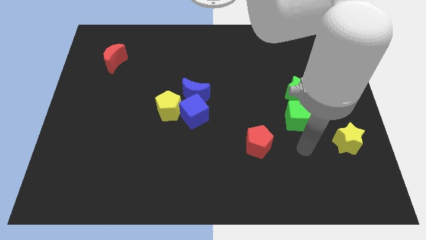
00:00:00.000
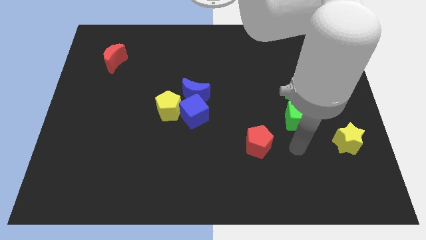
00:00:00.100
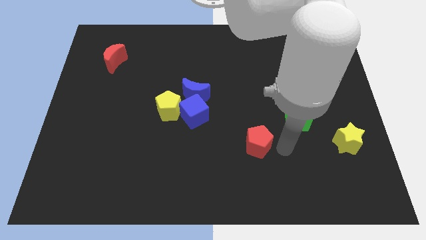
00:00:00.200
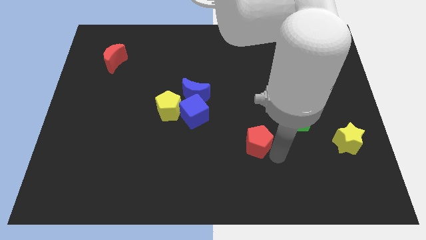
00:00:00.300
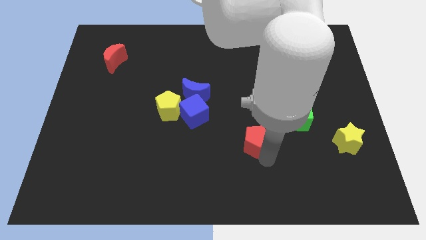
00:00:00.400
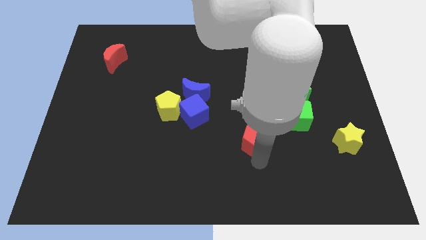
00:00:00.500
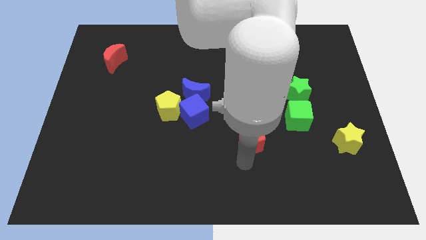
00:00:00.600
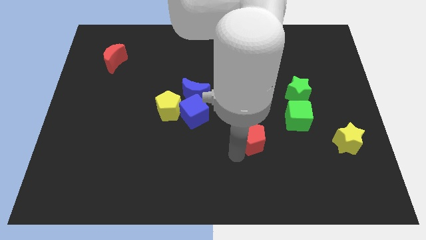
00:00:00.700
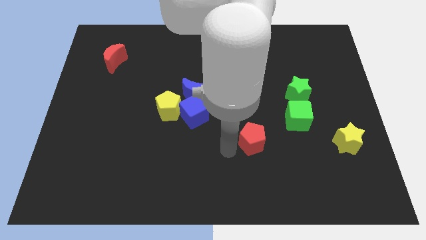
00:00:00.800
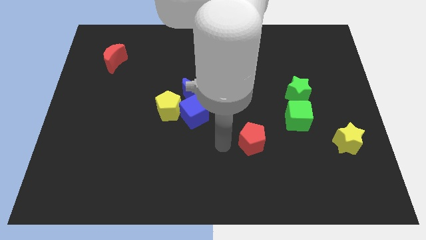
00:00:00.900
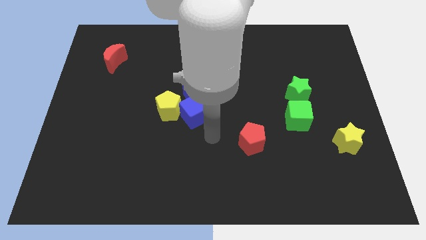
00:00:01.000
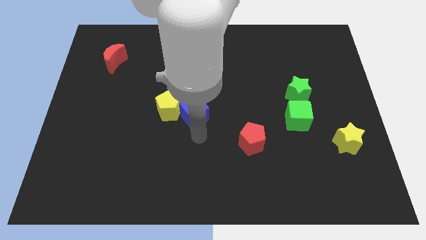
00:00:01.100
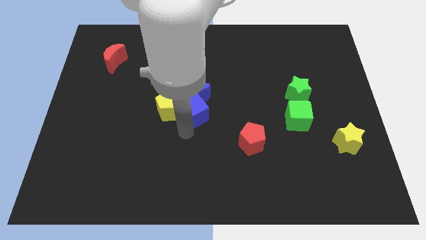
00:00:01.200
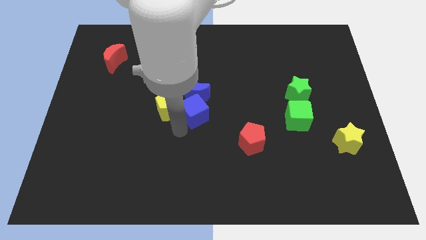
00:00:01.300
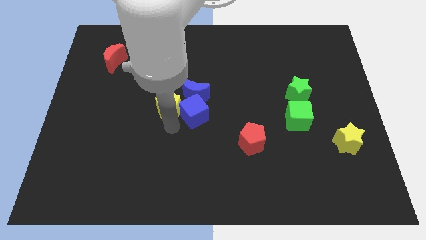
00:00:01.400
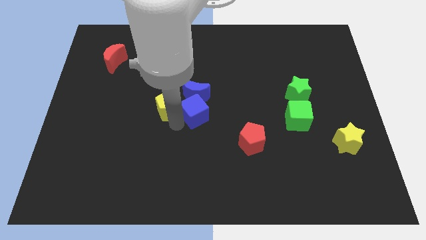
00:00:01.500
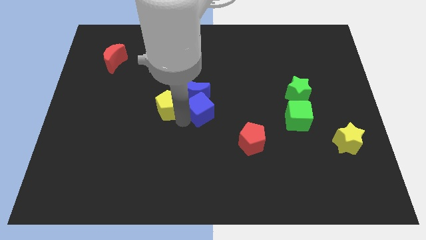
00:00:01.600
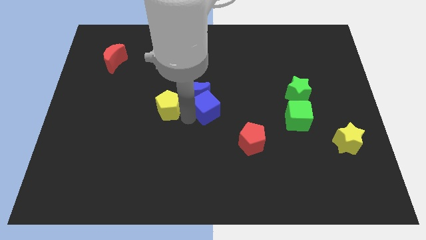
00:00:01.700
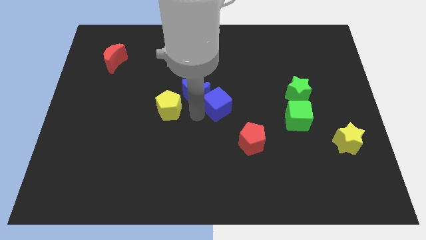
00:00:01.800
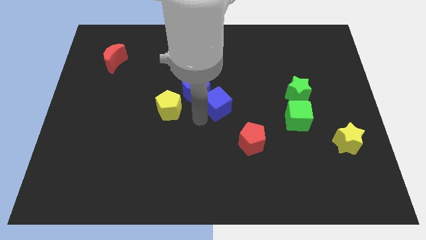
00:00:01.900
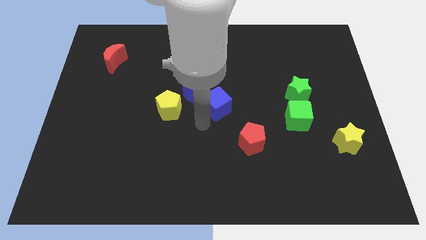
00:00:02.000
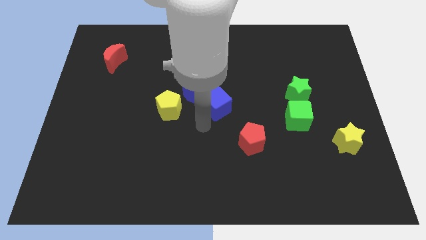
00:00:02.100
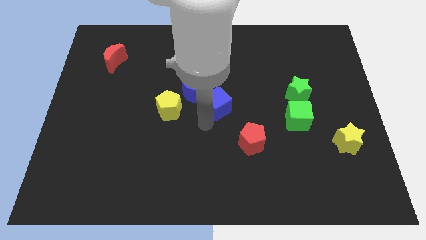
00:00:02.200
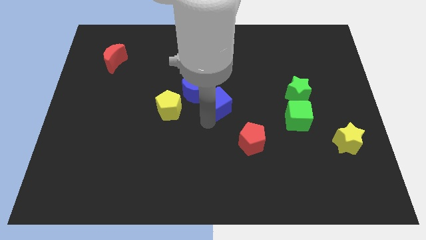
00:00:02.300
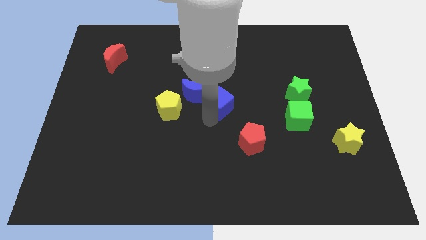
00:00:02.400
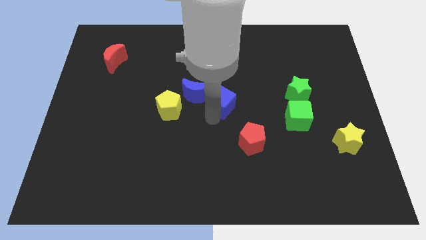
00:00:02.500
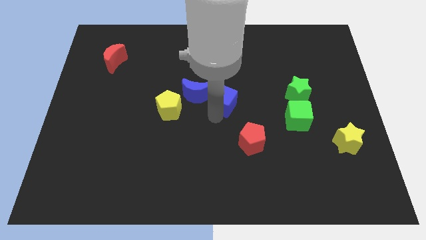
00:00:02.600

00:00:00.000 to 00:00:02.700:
move the blue cube diagonally upwards and to the right a bit

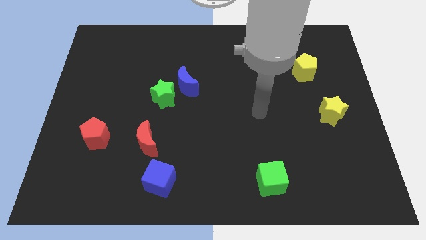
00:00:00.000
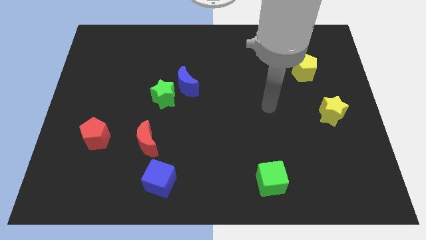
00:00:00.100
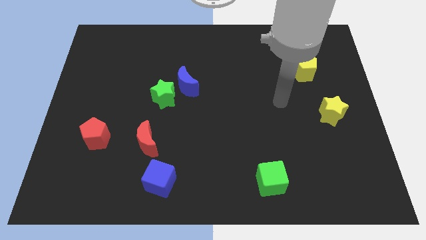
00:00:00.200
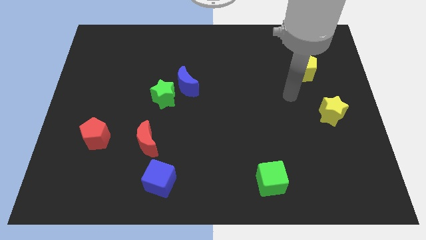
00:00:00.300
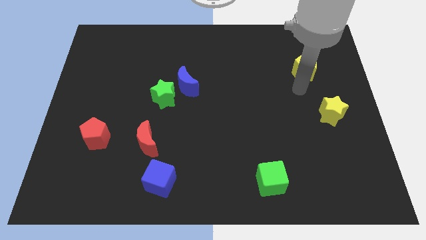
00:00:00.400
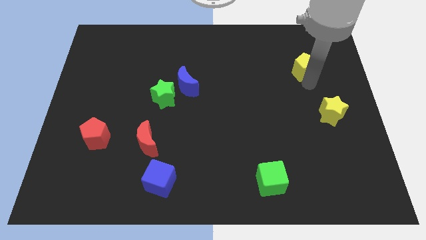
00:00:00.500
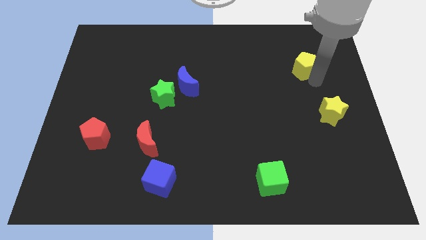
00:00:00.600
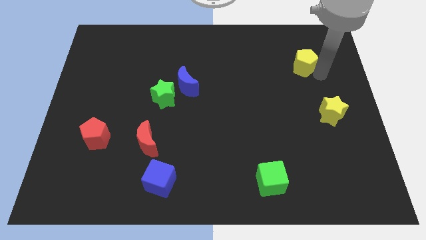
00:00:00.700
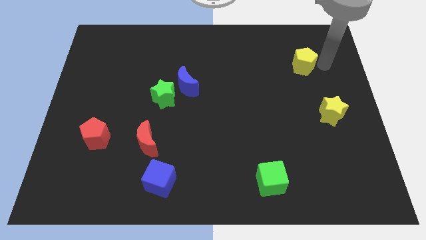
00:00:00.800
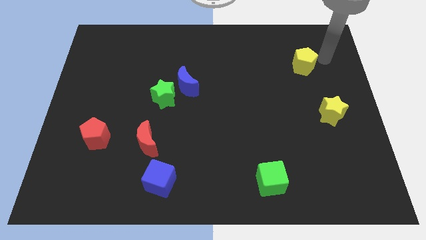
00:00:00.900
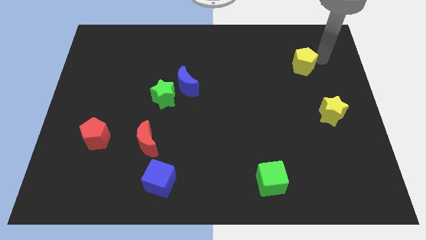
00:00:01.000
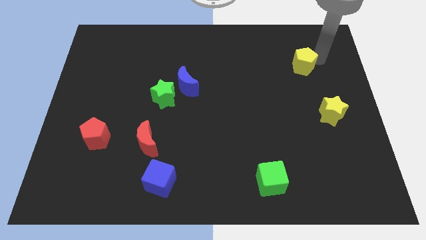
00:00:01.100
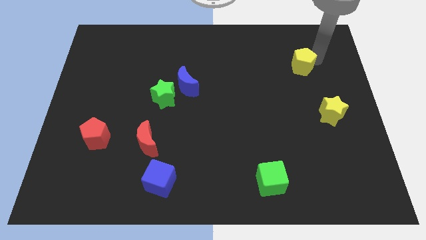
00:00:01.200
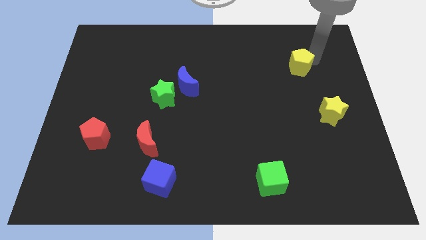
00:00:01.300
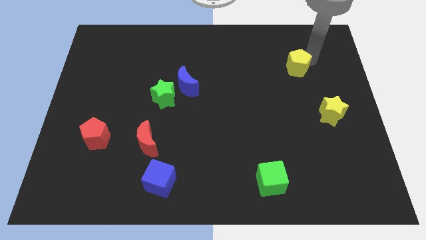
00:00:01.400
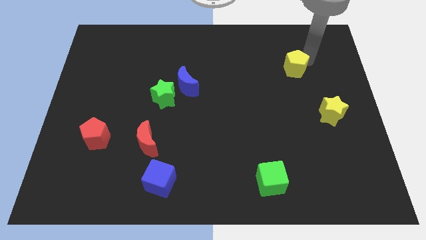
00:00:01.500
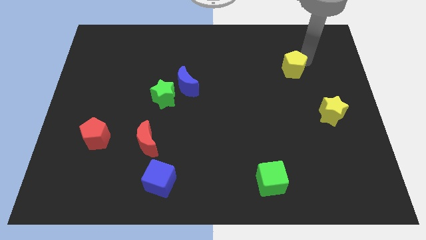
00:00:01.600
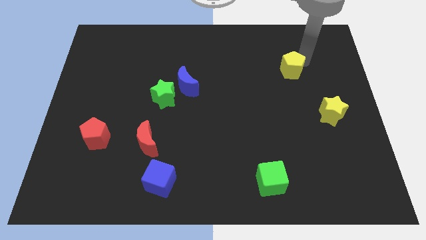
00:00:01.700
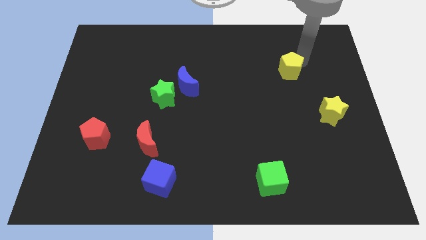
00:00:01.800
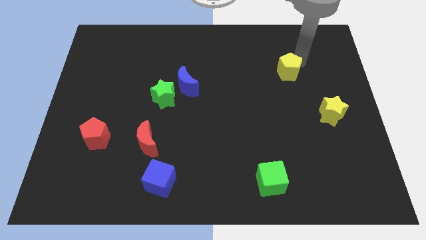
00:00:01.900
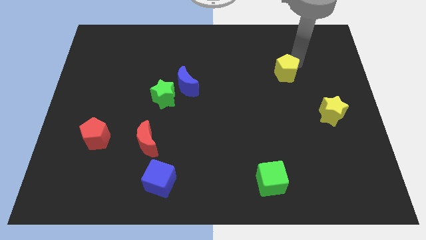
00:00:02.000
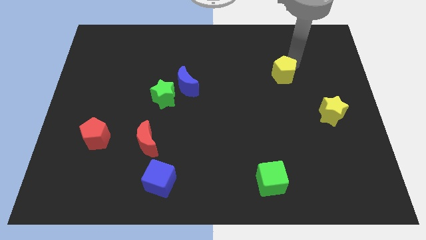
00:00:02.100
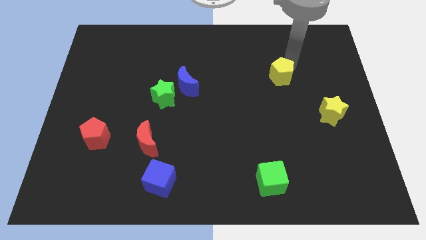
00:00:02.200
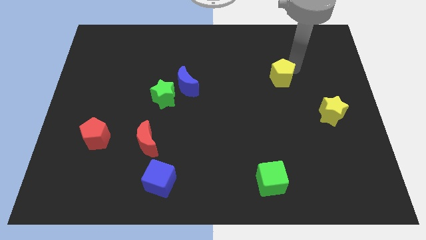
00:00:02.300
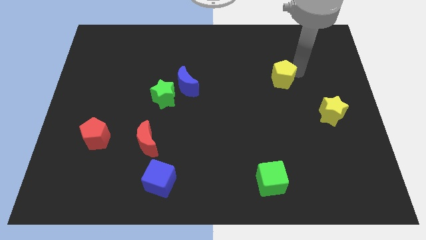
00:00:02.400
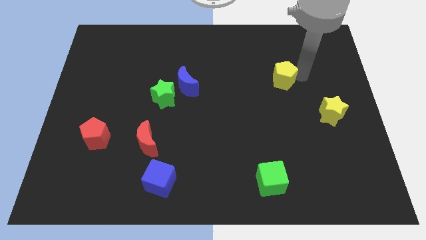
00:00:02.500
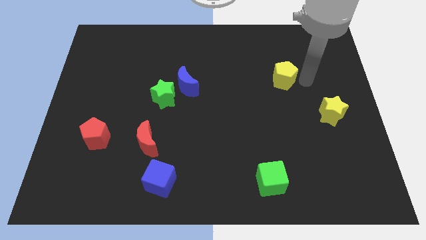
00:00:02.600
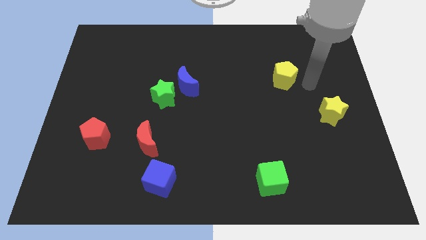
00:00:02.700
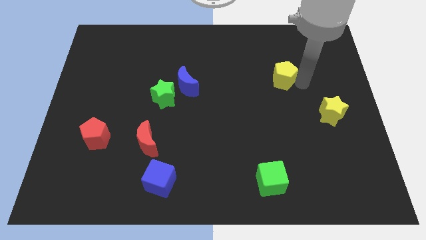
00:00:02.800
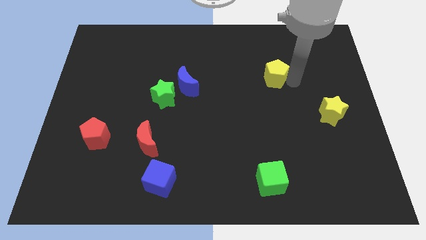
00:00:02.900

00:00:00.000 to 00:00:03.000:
slightly push the yellow pentagon left

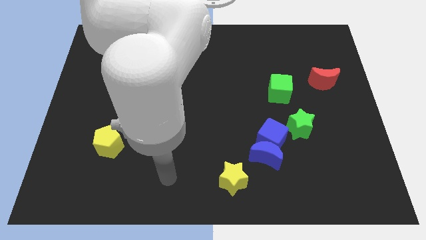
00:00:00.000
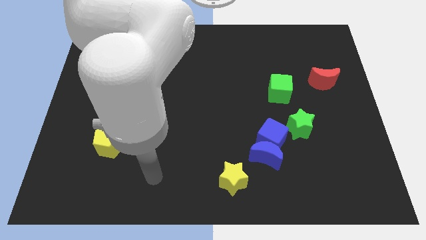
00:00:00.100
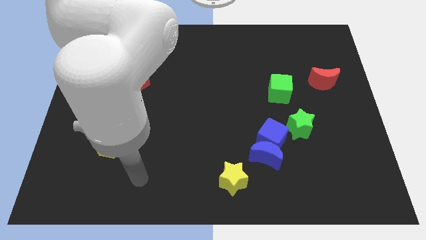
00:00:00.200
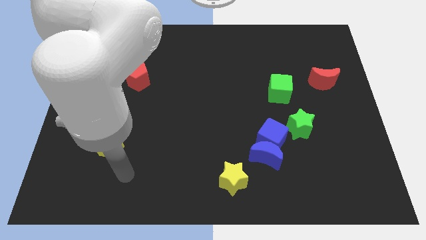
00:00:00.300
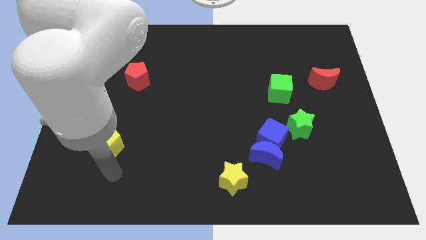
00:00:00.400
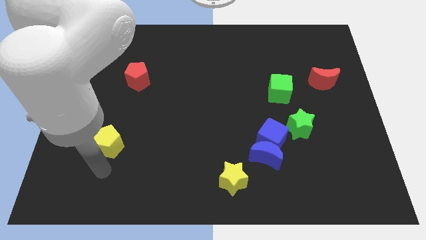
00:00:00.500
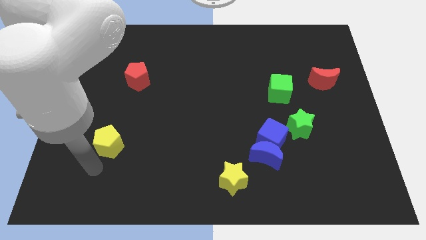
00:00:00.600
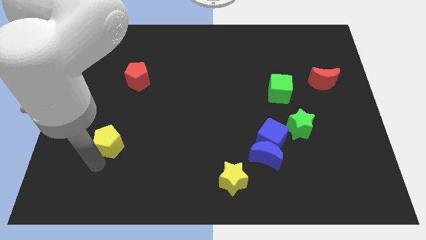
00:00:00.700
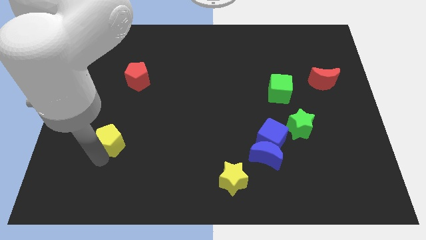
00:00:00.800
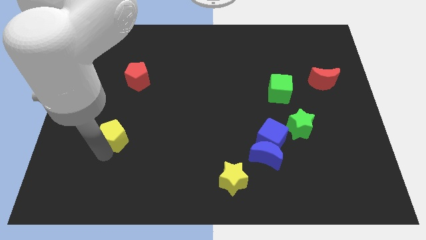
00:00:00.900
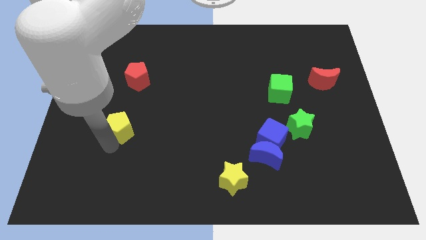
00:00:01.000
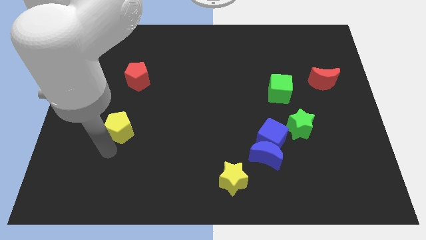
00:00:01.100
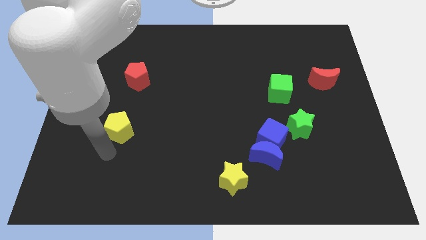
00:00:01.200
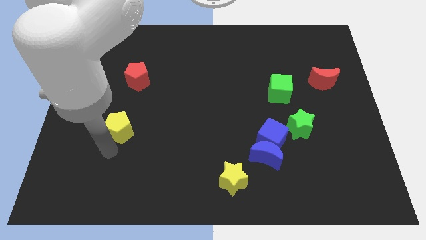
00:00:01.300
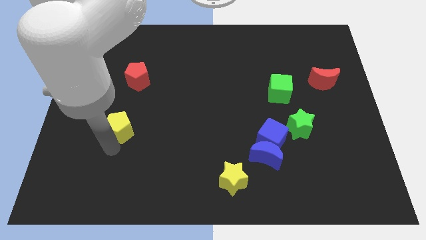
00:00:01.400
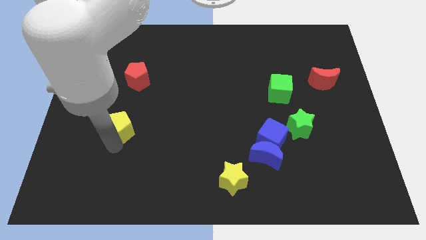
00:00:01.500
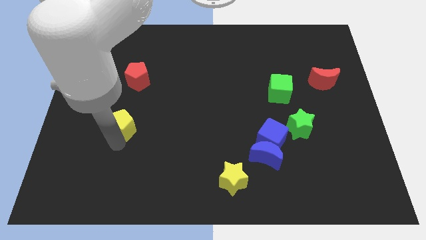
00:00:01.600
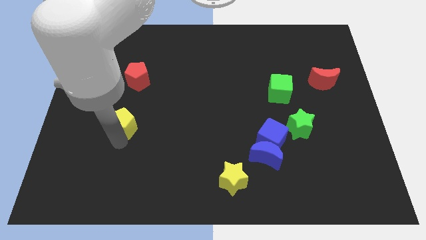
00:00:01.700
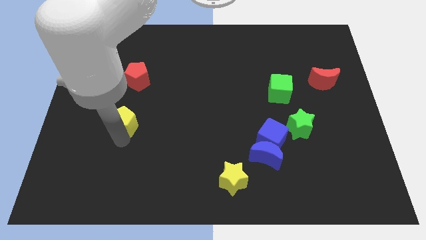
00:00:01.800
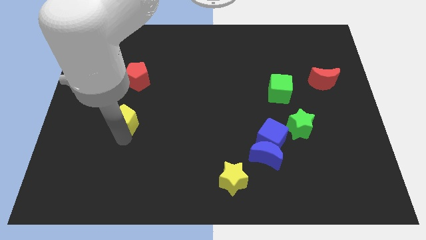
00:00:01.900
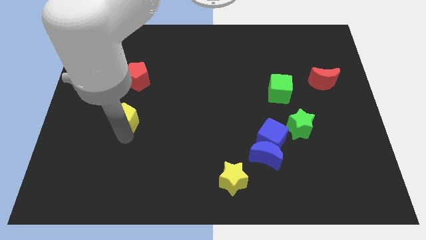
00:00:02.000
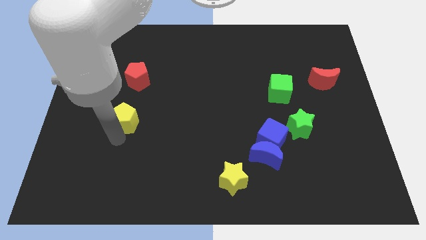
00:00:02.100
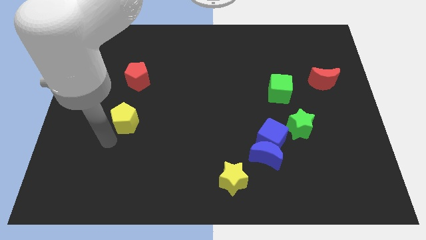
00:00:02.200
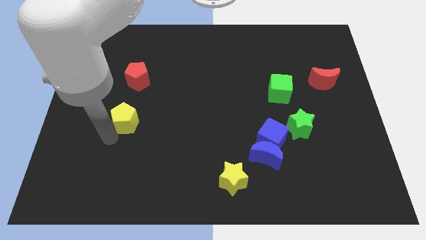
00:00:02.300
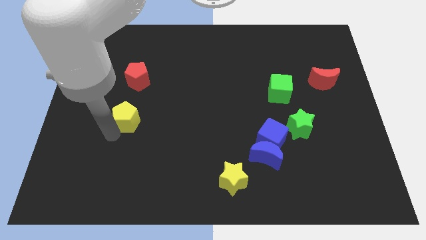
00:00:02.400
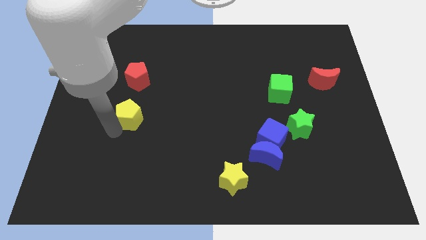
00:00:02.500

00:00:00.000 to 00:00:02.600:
slightly push the yellow pentagon up and to the right diagonally

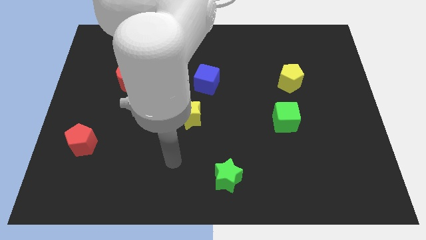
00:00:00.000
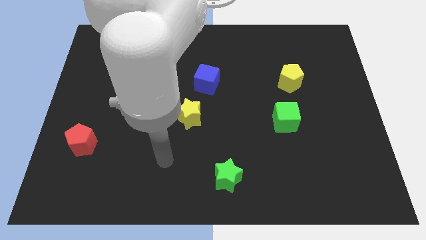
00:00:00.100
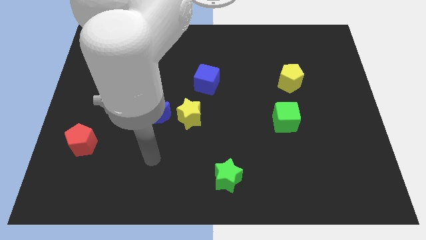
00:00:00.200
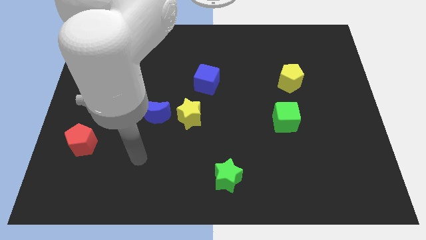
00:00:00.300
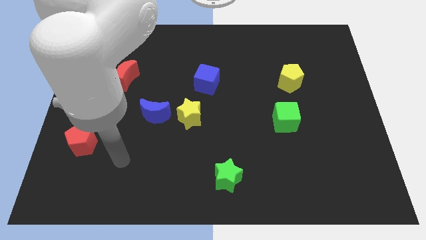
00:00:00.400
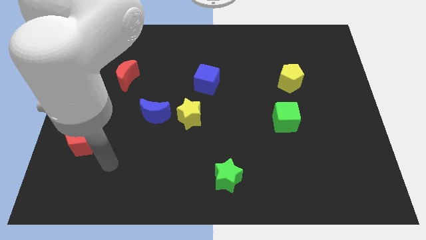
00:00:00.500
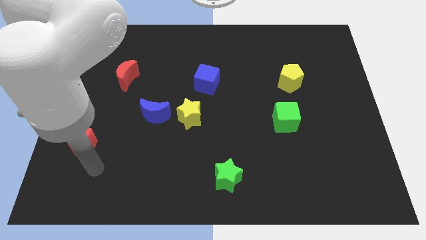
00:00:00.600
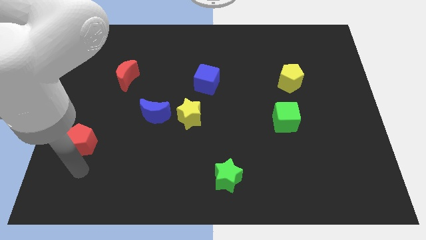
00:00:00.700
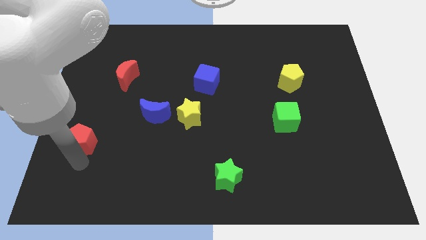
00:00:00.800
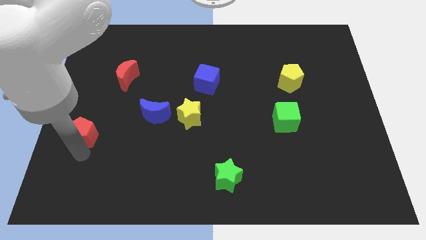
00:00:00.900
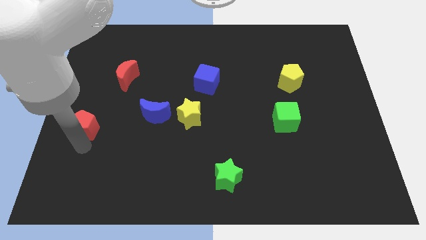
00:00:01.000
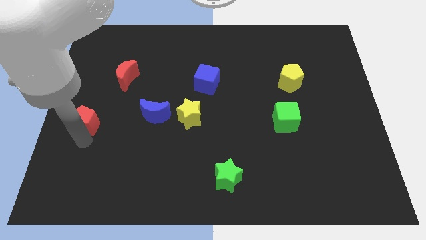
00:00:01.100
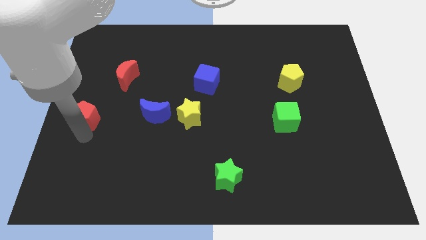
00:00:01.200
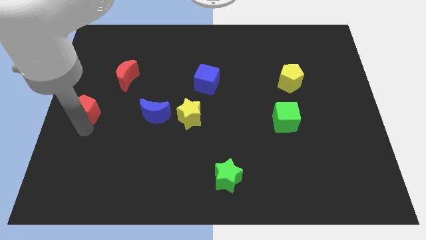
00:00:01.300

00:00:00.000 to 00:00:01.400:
slightly push the red pentagon upwards
